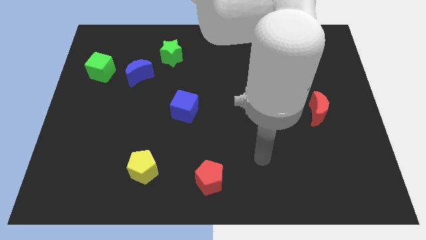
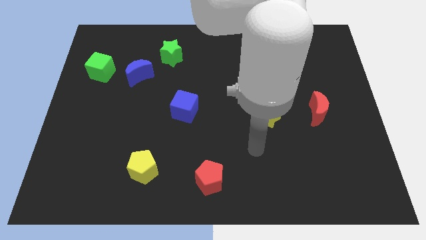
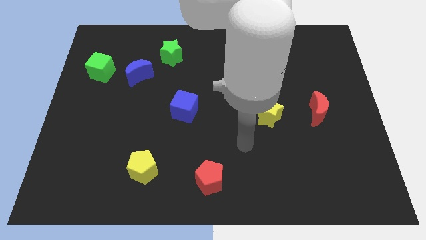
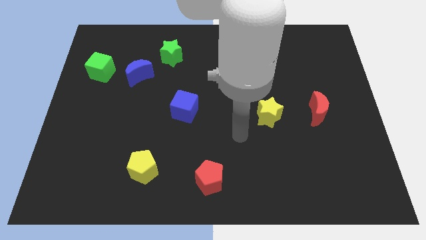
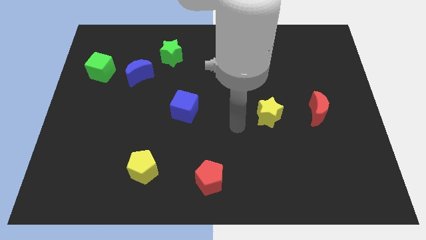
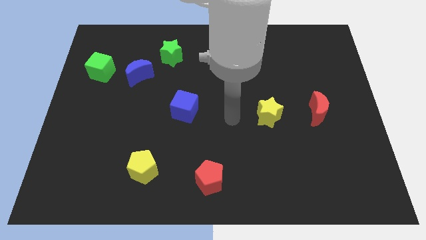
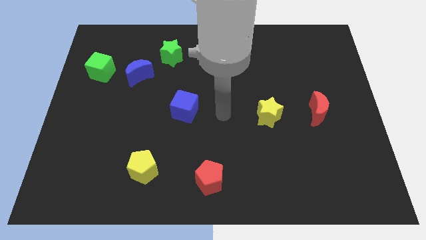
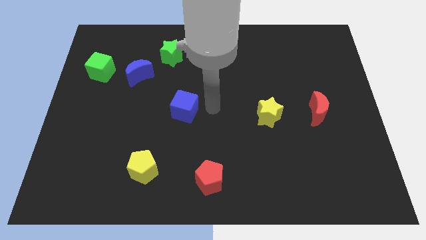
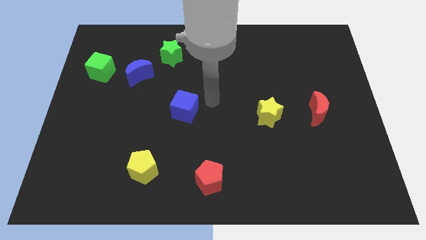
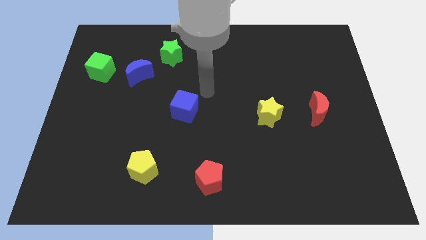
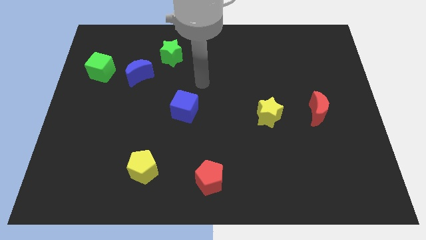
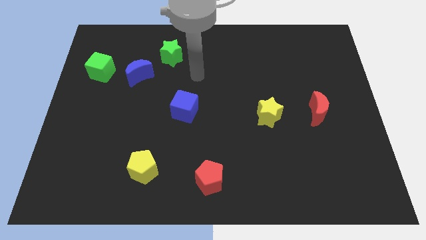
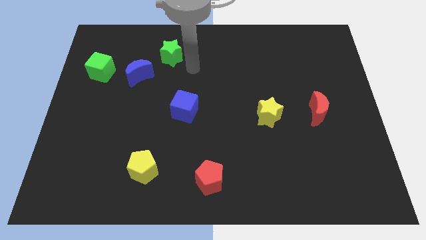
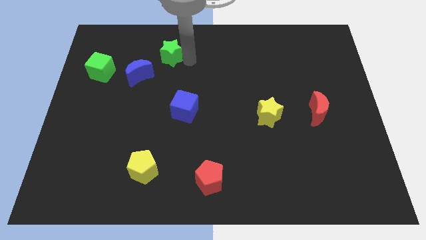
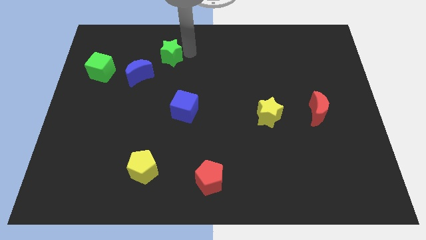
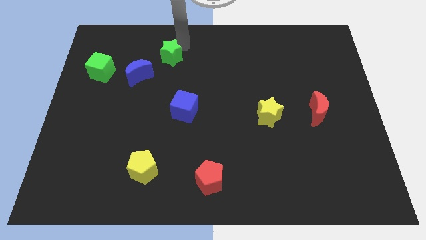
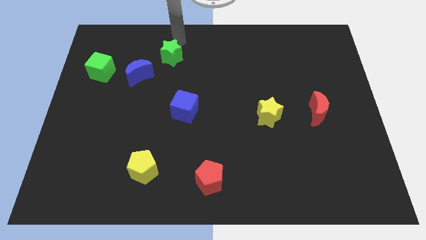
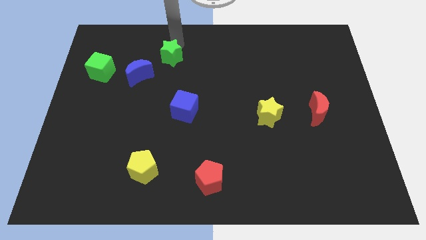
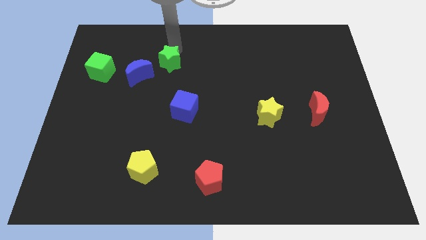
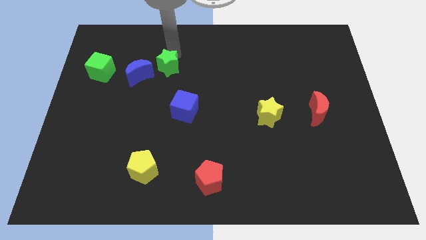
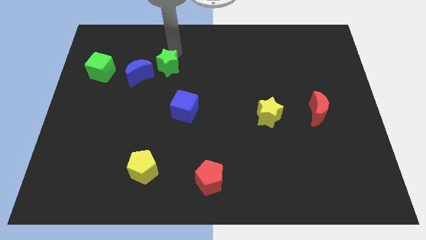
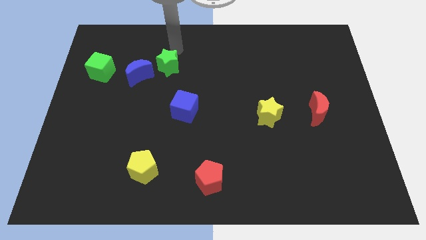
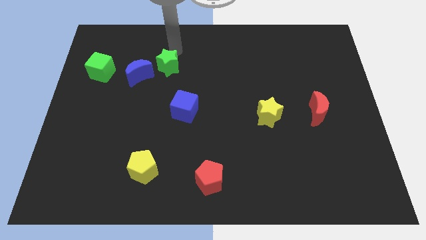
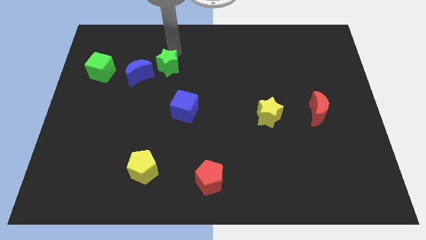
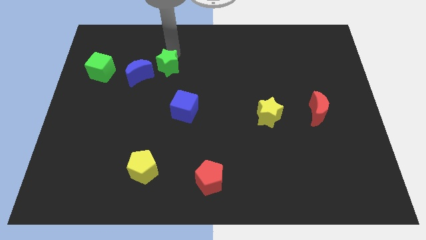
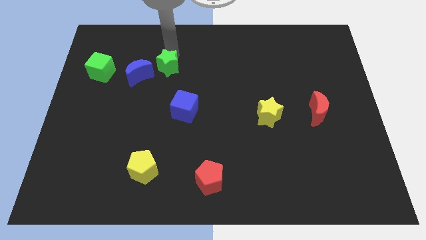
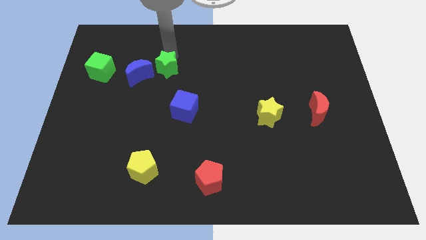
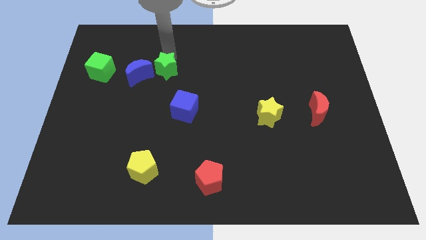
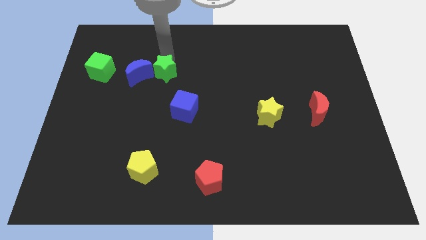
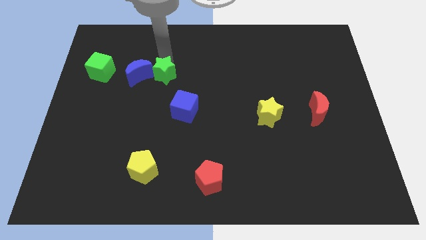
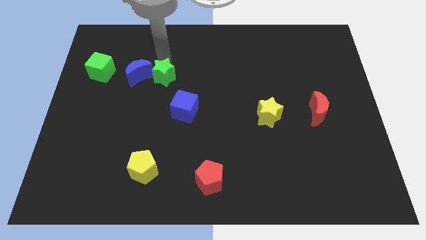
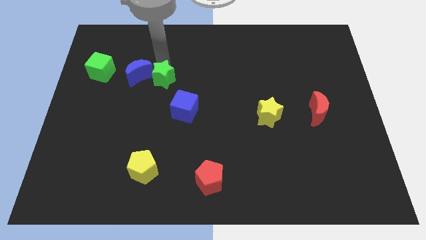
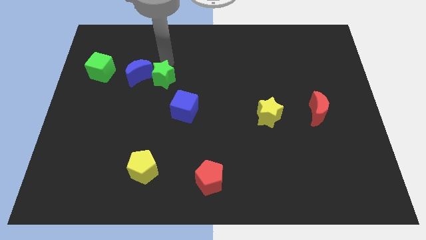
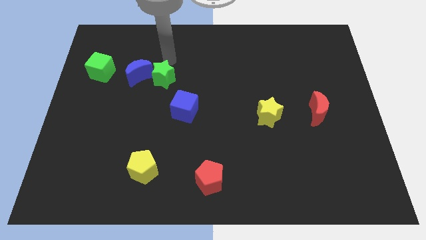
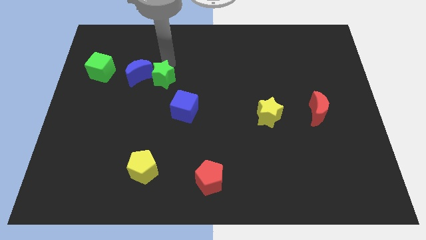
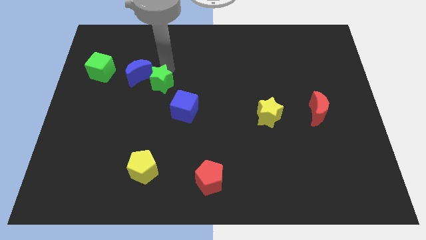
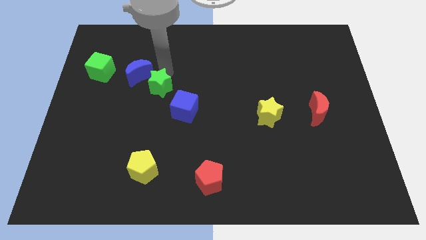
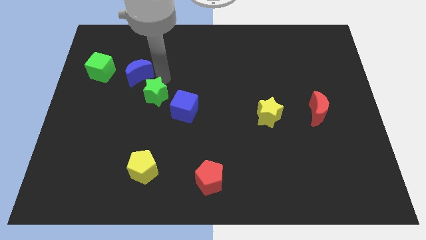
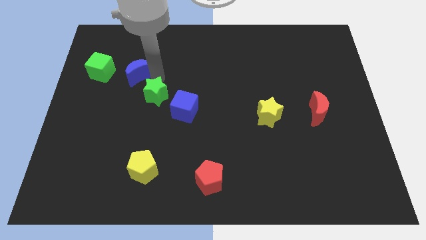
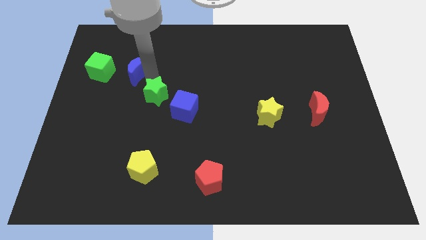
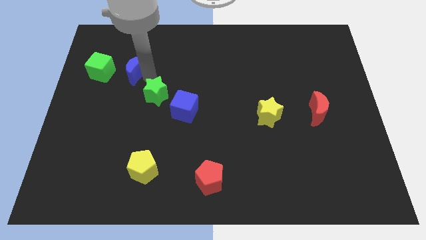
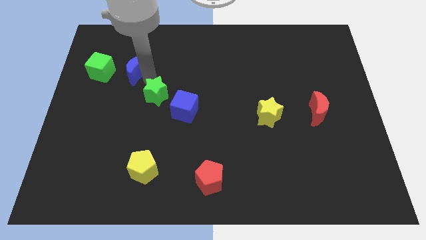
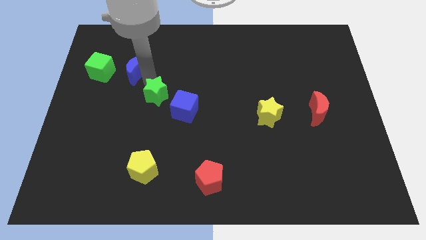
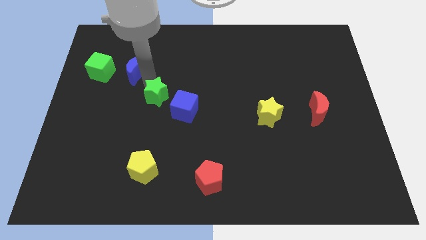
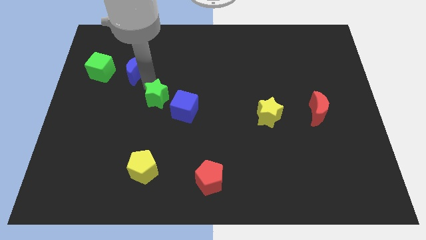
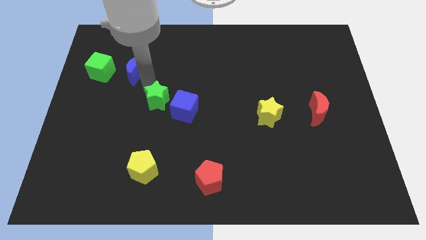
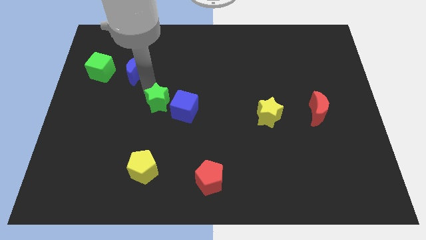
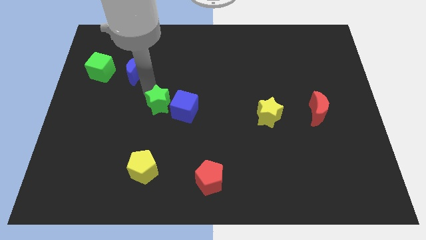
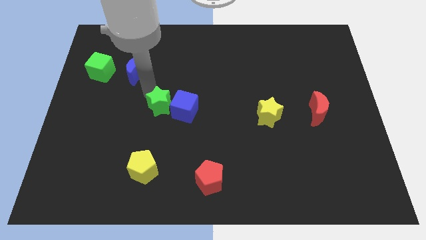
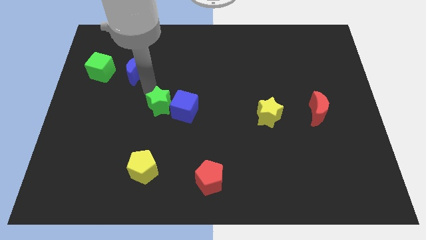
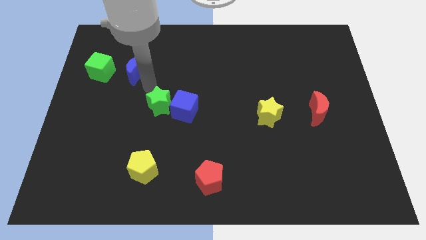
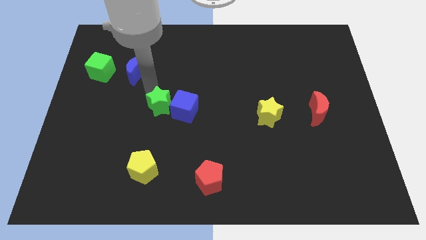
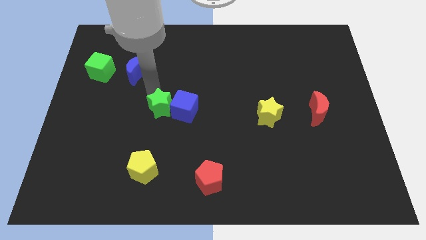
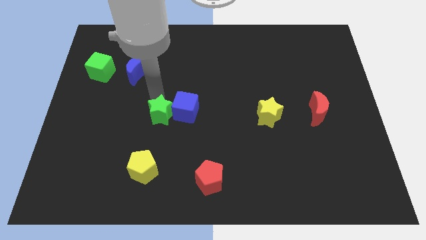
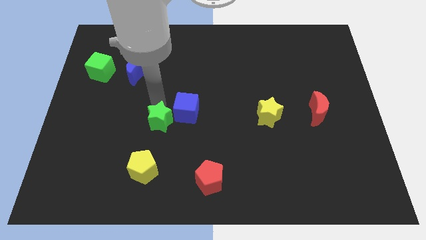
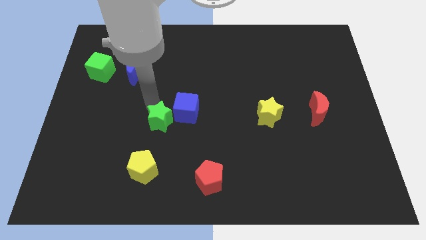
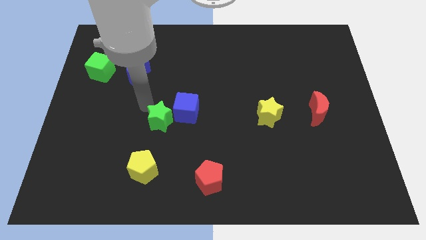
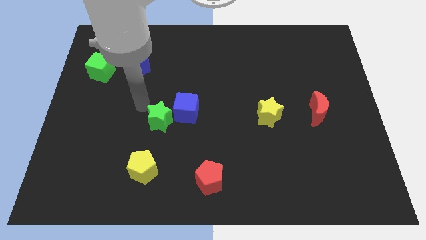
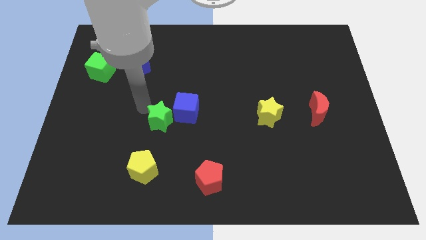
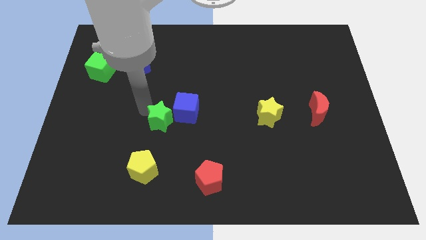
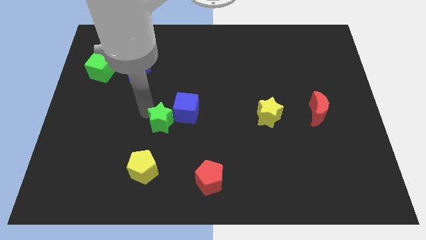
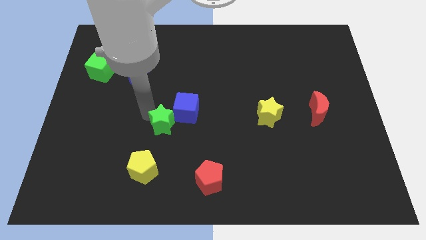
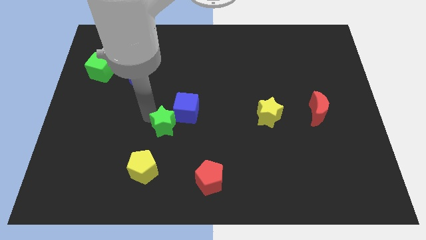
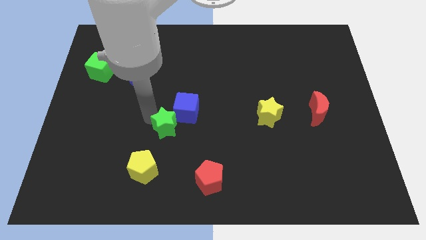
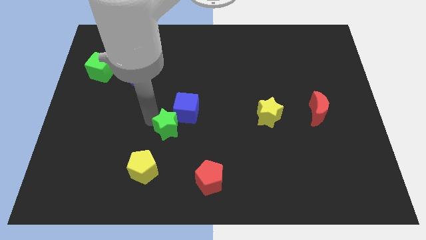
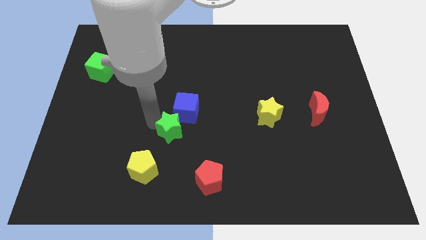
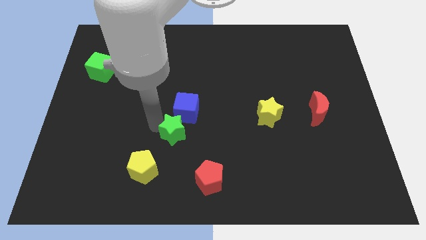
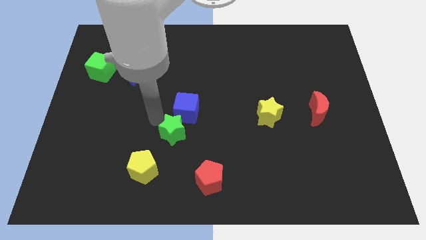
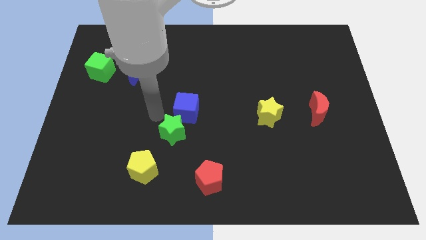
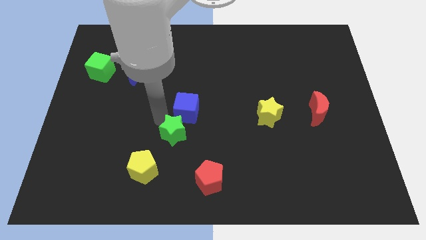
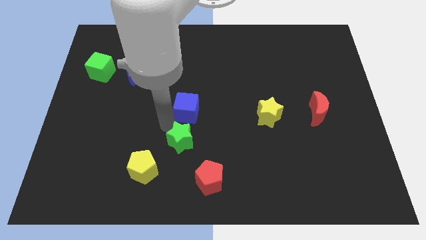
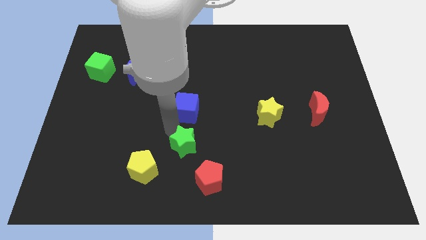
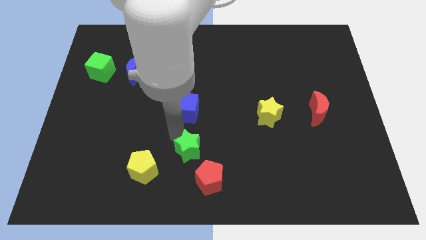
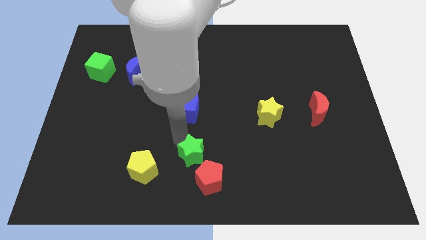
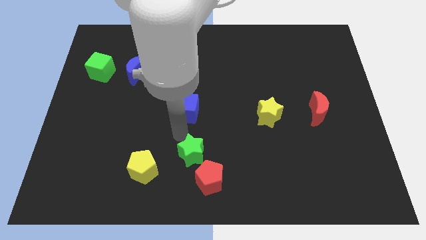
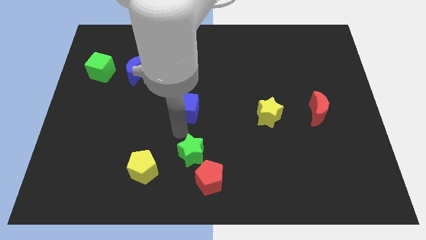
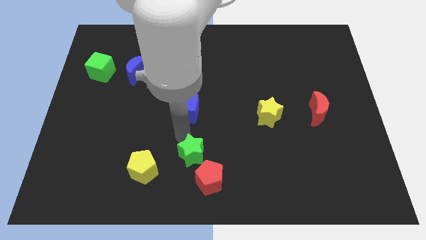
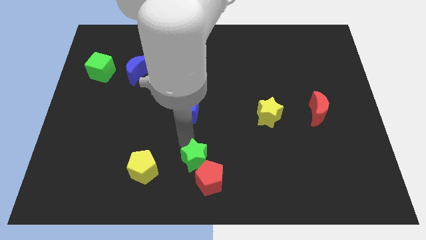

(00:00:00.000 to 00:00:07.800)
slide the green star close to the red pentagon
